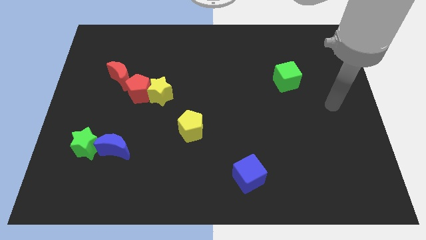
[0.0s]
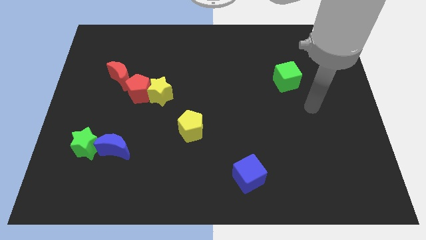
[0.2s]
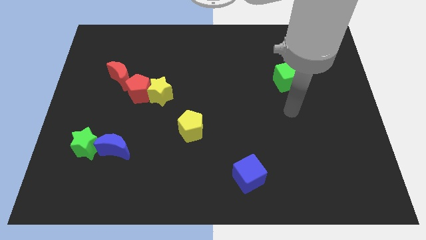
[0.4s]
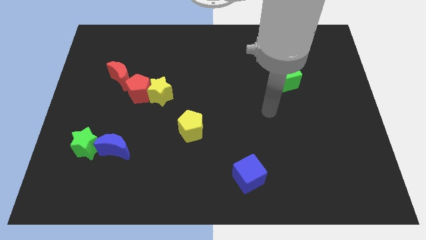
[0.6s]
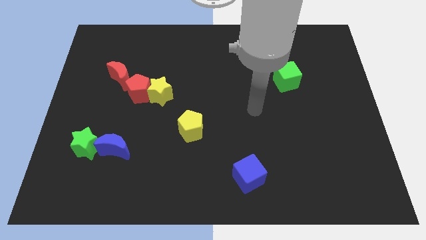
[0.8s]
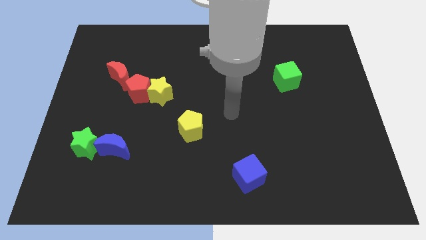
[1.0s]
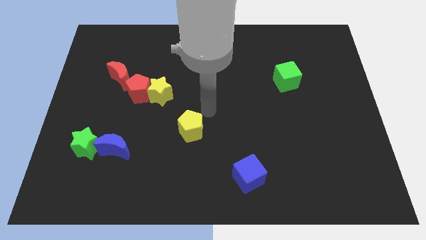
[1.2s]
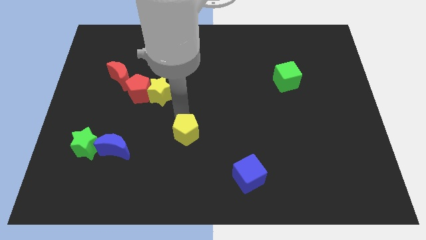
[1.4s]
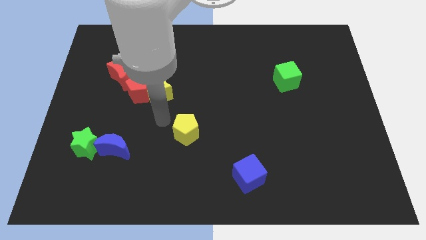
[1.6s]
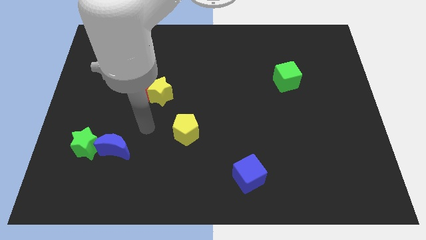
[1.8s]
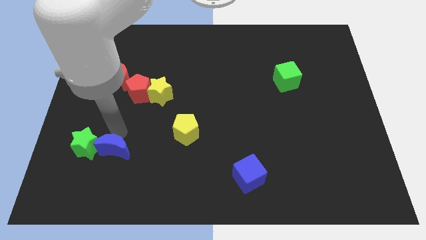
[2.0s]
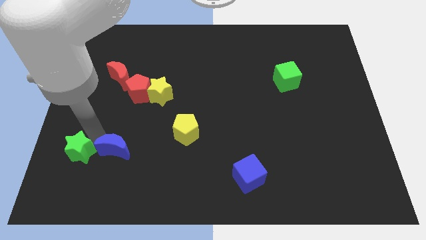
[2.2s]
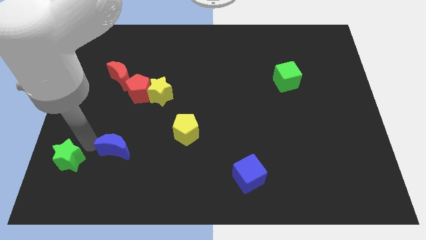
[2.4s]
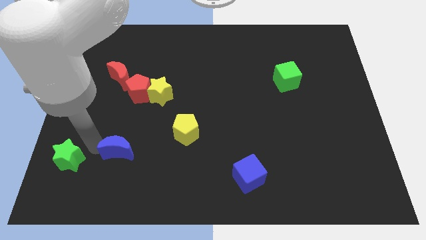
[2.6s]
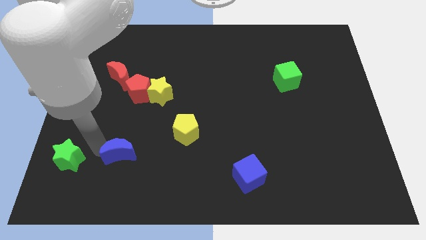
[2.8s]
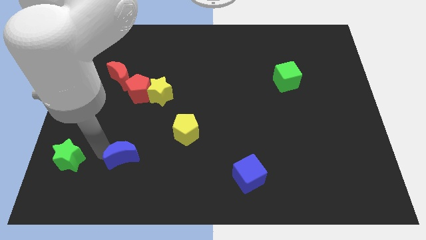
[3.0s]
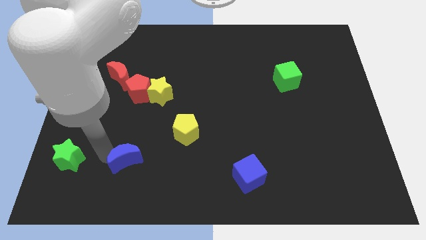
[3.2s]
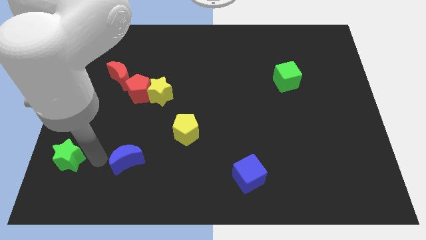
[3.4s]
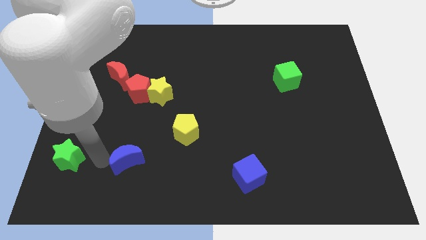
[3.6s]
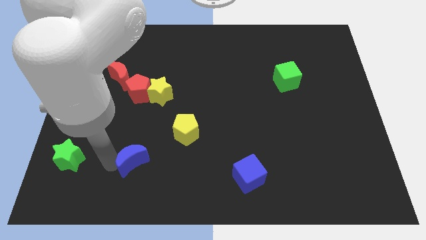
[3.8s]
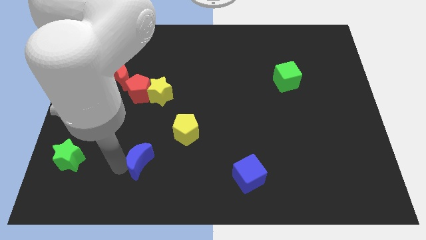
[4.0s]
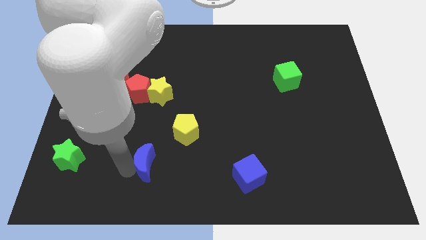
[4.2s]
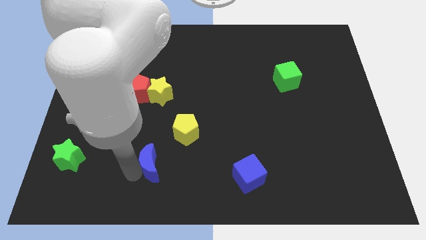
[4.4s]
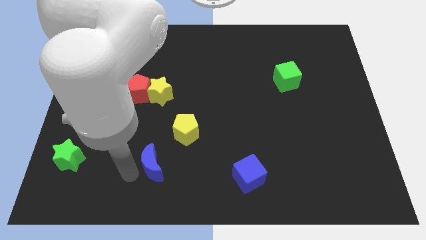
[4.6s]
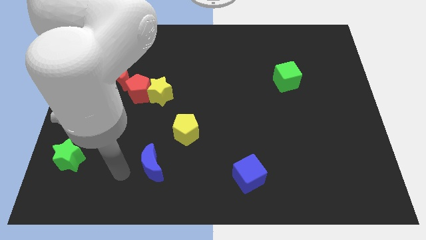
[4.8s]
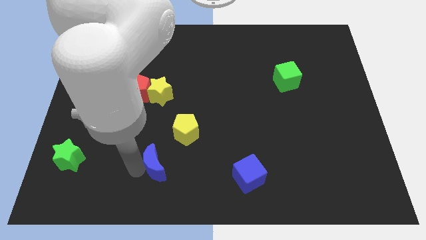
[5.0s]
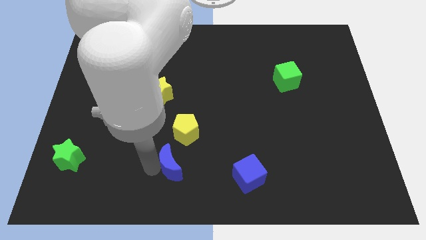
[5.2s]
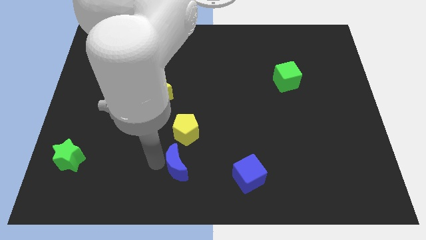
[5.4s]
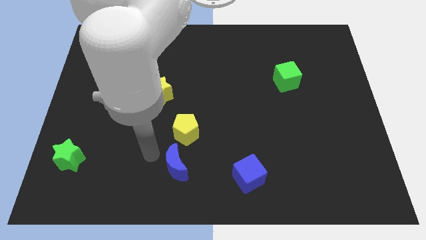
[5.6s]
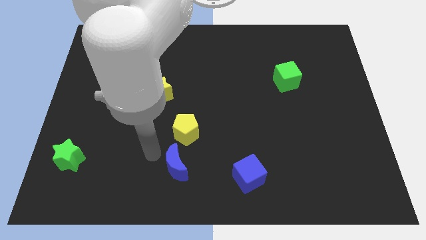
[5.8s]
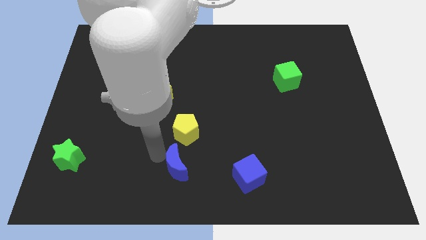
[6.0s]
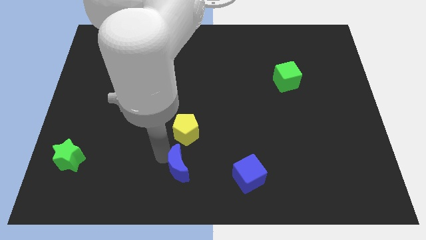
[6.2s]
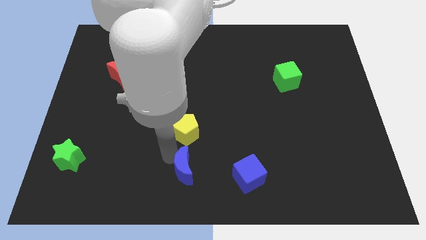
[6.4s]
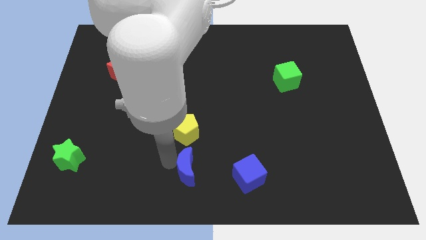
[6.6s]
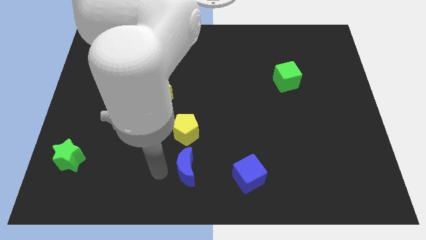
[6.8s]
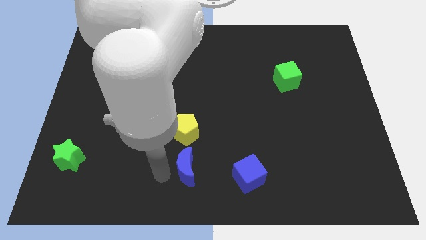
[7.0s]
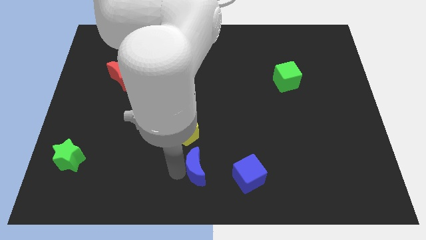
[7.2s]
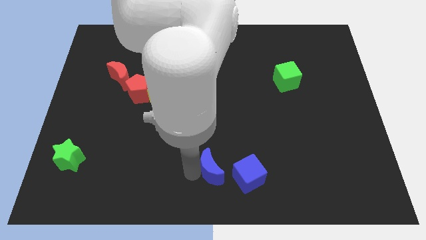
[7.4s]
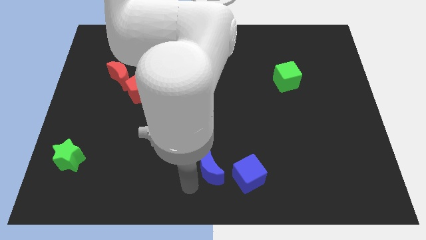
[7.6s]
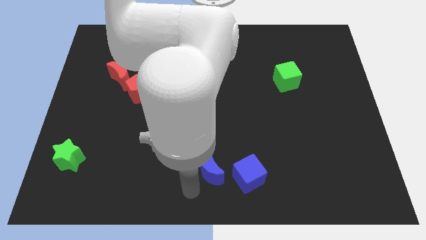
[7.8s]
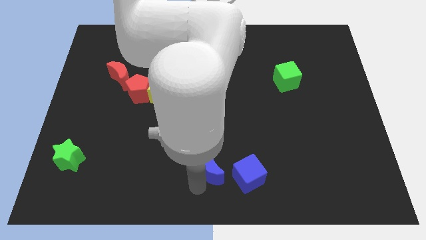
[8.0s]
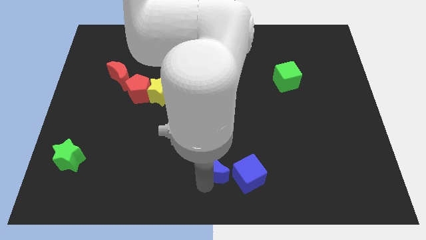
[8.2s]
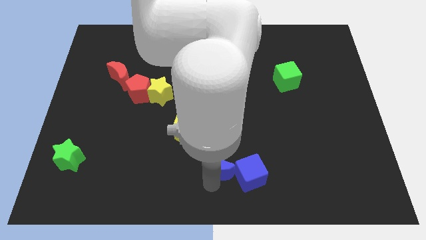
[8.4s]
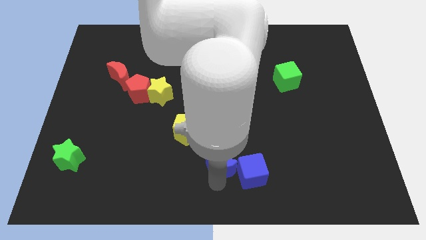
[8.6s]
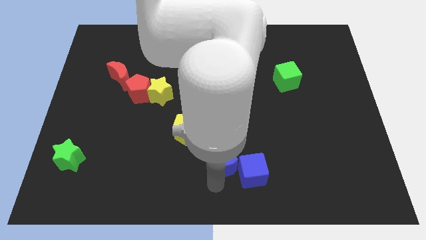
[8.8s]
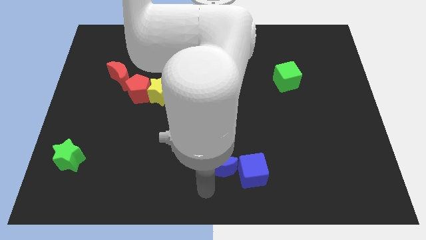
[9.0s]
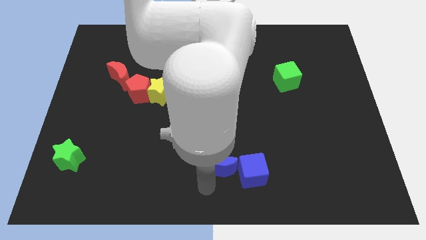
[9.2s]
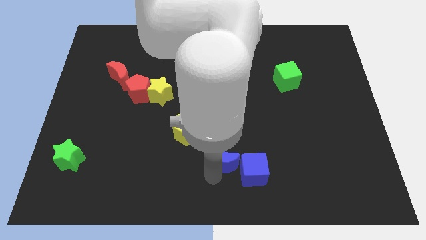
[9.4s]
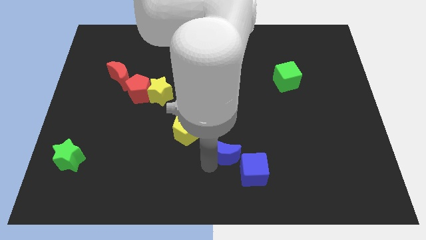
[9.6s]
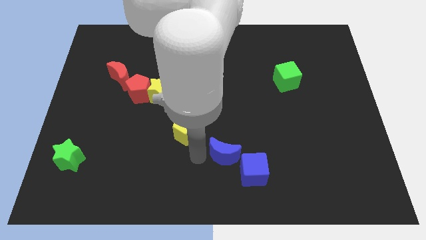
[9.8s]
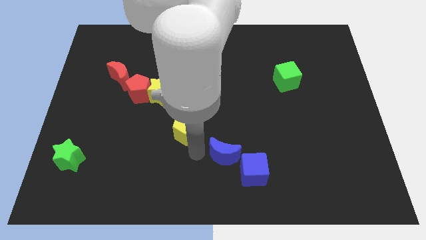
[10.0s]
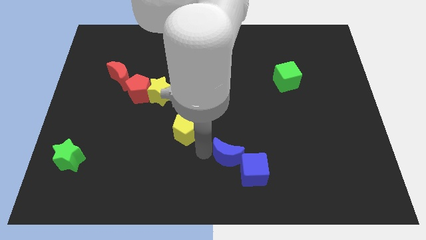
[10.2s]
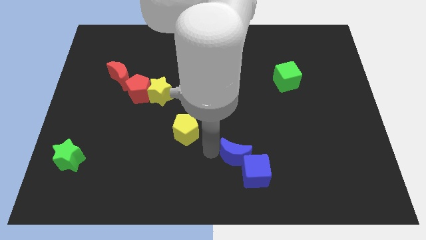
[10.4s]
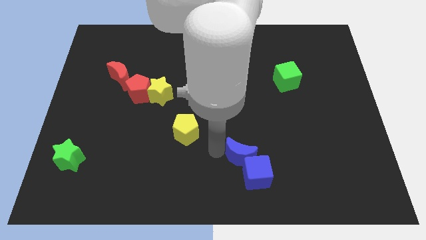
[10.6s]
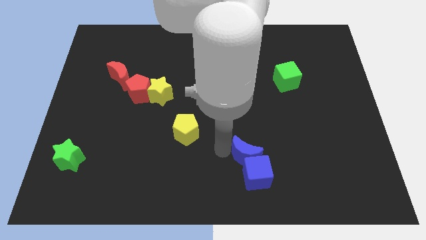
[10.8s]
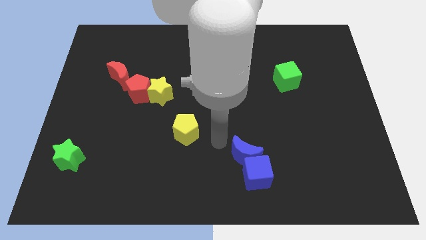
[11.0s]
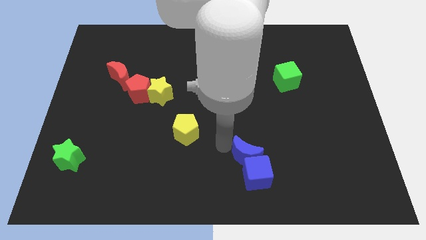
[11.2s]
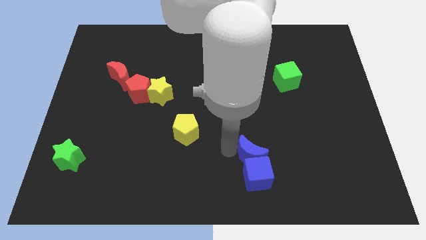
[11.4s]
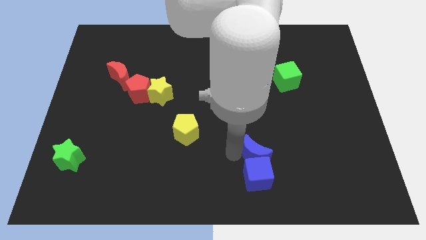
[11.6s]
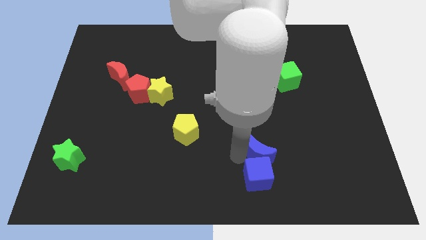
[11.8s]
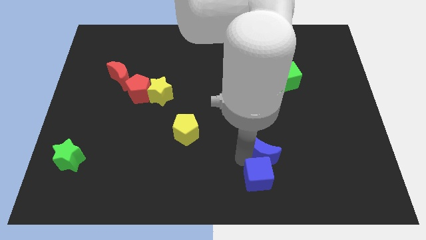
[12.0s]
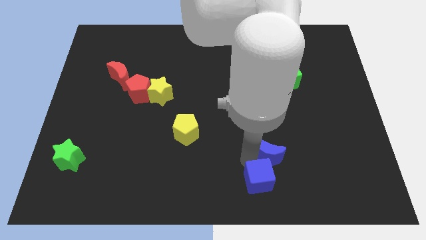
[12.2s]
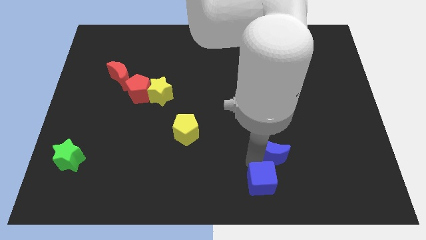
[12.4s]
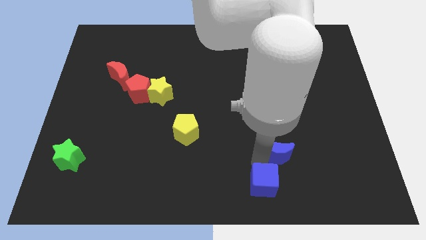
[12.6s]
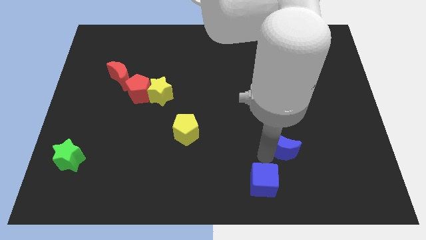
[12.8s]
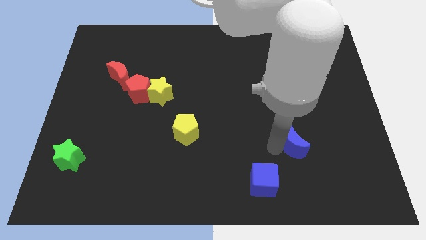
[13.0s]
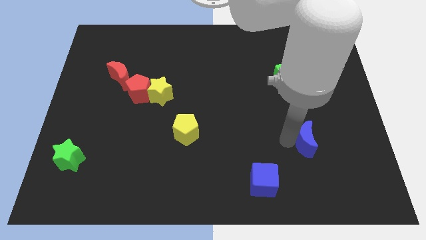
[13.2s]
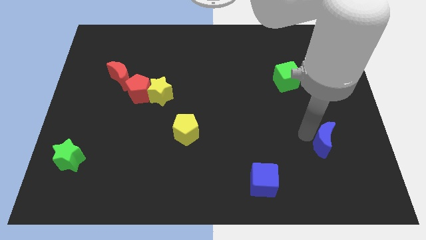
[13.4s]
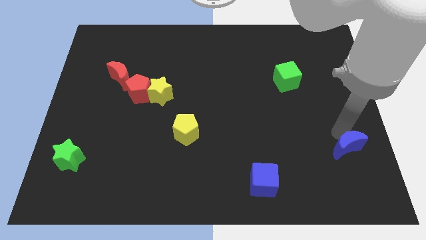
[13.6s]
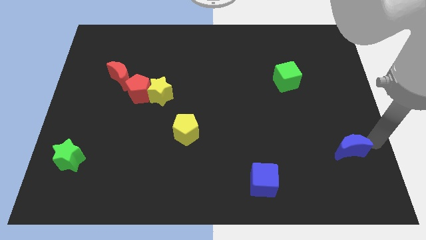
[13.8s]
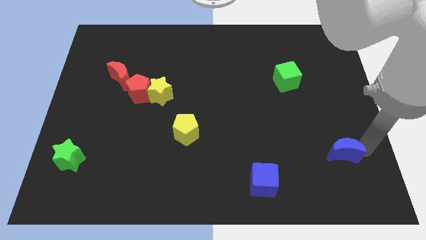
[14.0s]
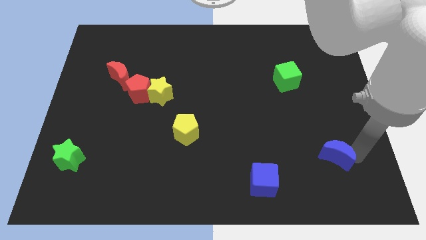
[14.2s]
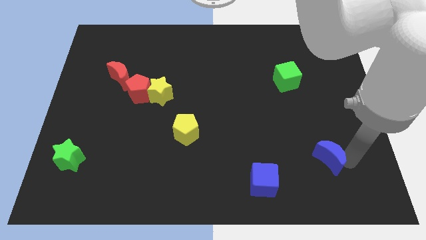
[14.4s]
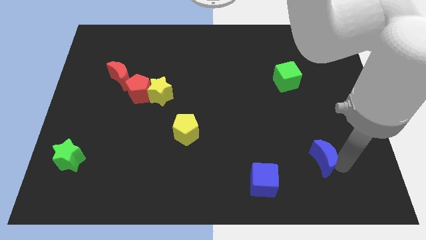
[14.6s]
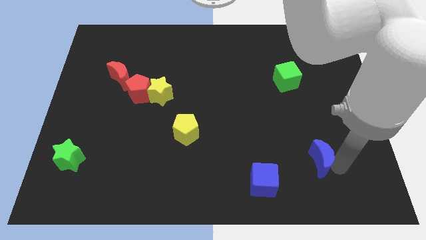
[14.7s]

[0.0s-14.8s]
slide the blue moon to the right side of the blue cube

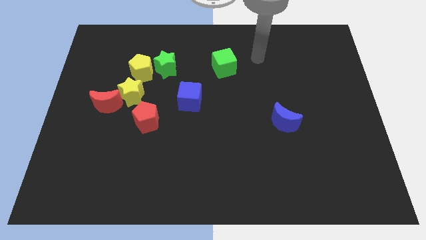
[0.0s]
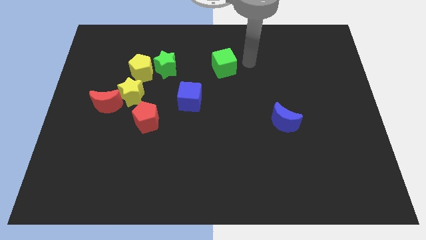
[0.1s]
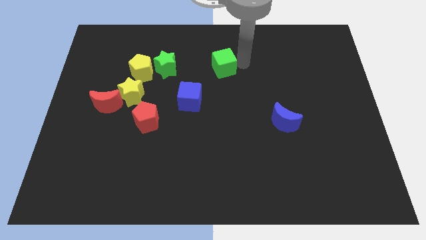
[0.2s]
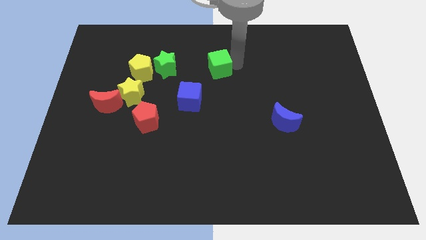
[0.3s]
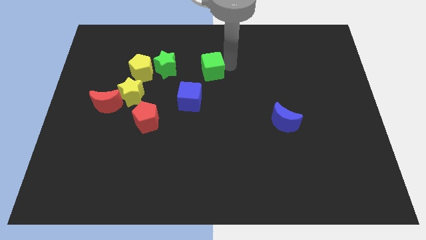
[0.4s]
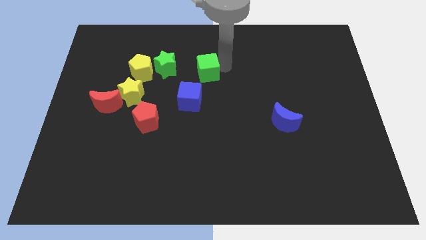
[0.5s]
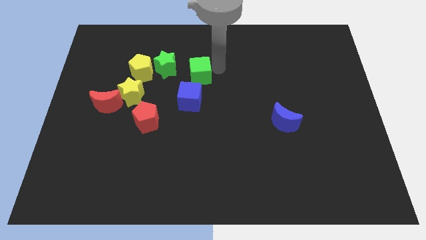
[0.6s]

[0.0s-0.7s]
put the green cube to the right side of the yellow pentagon

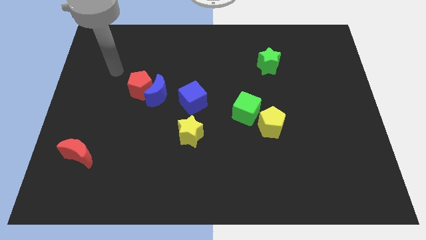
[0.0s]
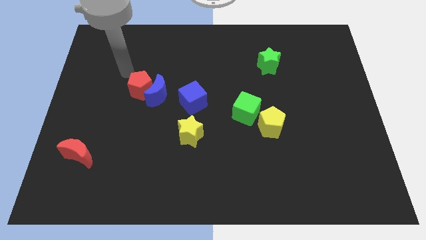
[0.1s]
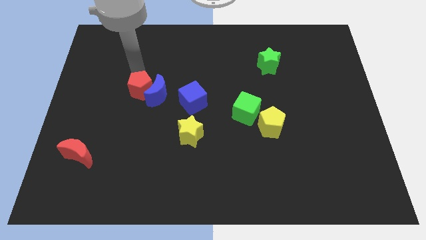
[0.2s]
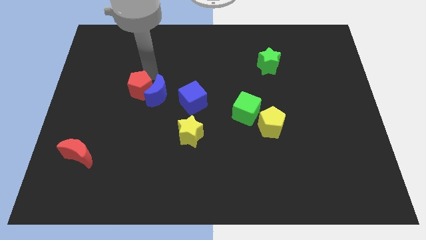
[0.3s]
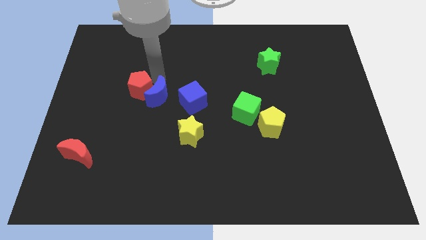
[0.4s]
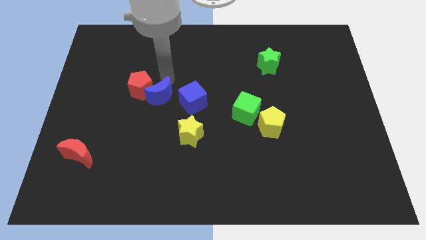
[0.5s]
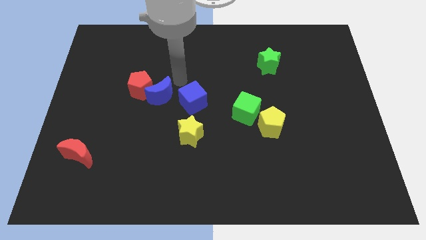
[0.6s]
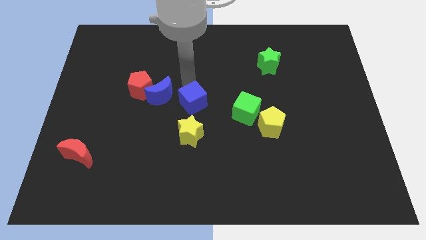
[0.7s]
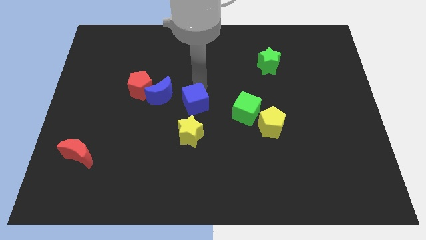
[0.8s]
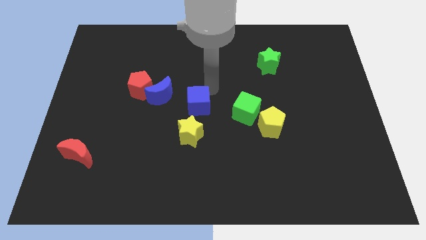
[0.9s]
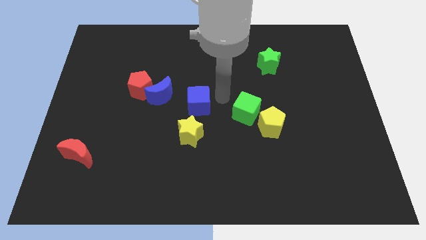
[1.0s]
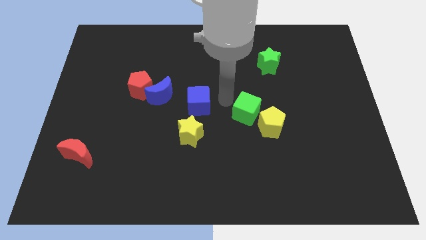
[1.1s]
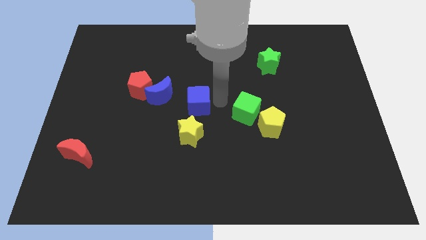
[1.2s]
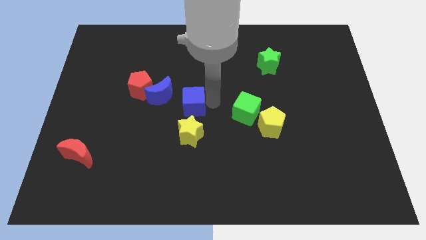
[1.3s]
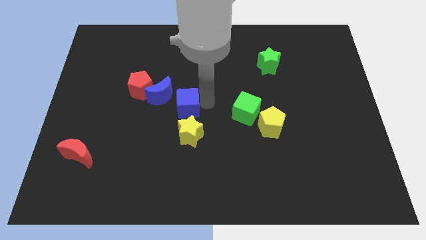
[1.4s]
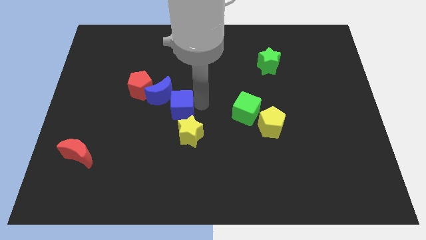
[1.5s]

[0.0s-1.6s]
move the blue cube to the bottom right side of the red pentagon
